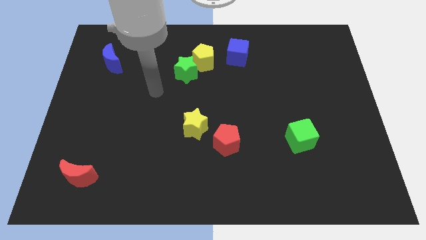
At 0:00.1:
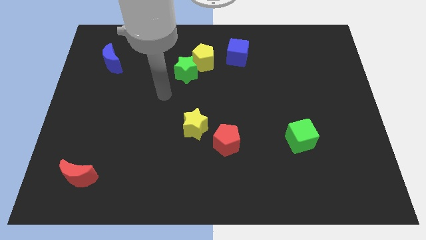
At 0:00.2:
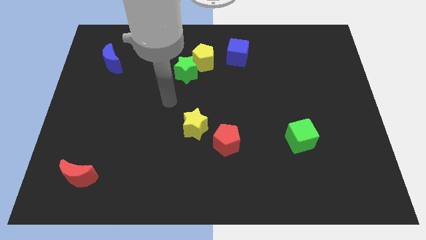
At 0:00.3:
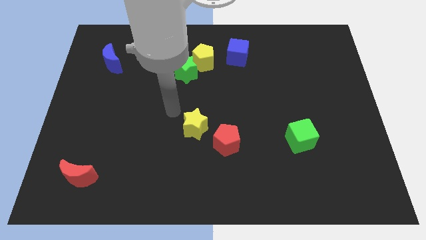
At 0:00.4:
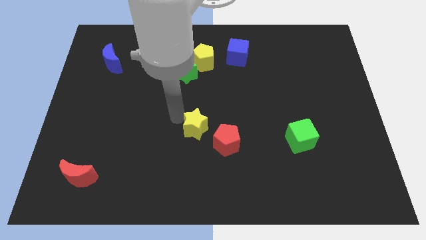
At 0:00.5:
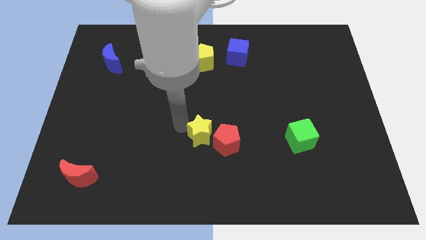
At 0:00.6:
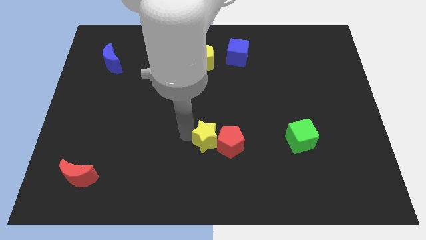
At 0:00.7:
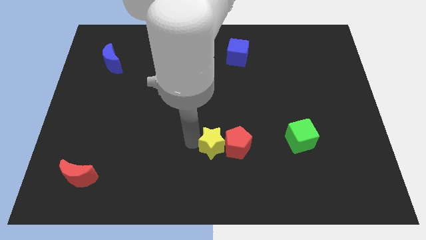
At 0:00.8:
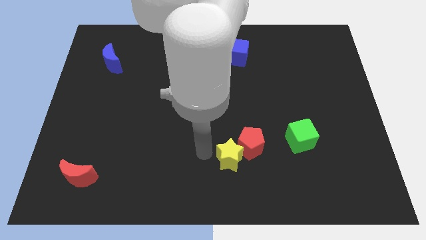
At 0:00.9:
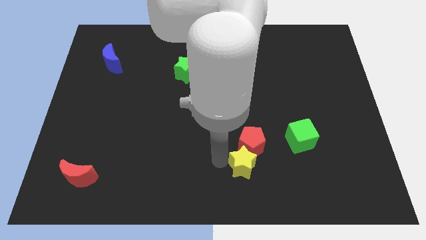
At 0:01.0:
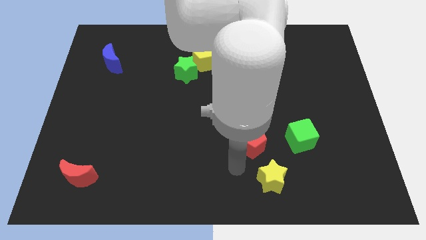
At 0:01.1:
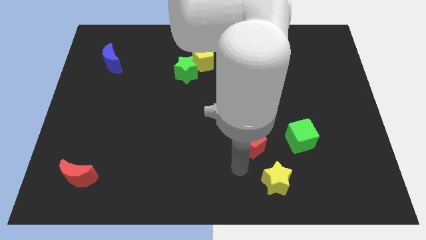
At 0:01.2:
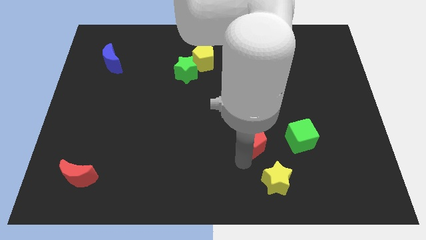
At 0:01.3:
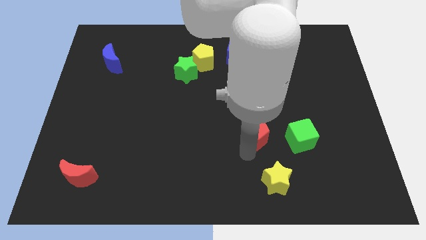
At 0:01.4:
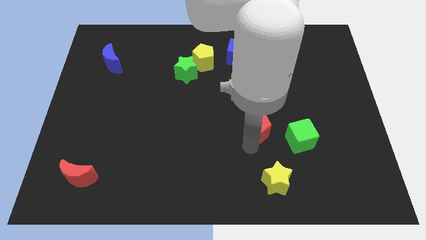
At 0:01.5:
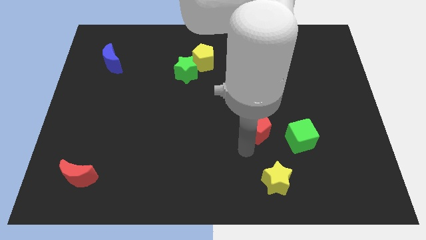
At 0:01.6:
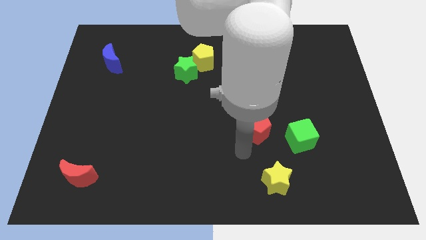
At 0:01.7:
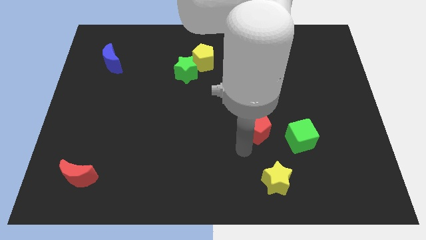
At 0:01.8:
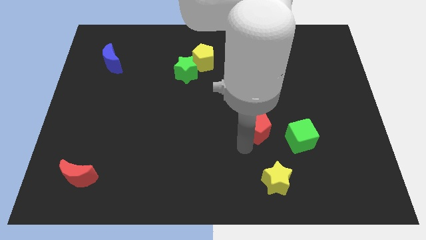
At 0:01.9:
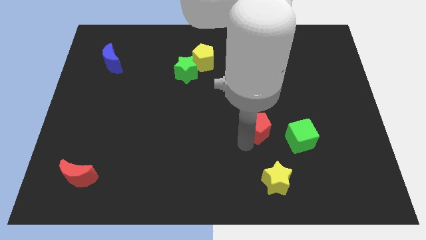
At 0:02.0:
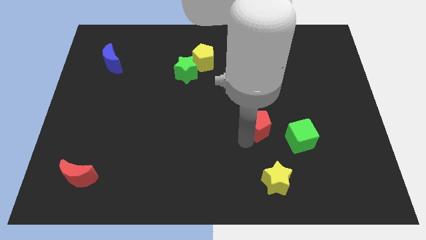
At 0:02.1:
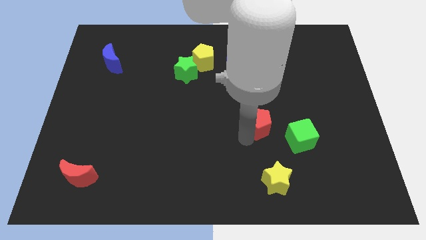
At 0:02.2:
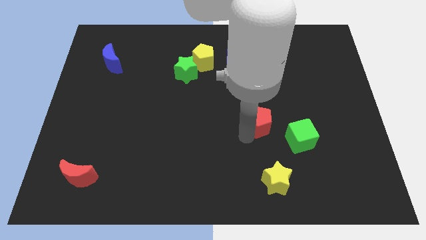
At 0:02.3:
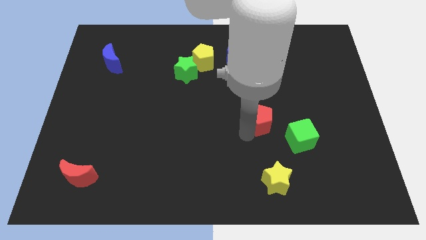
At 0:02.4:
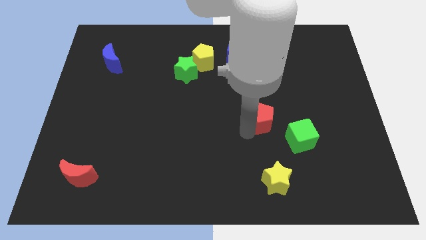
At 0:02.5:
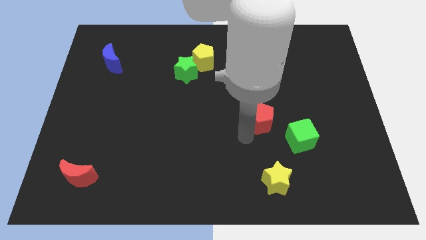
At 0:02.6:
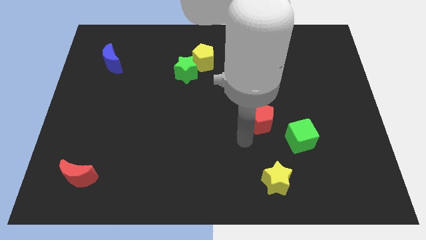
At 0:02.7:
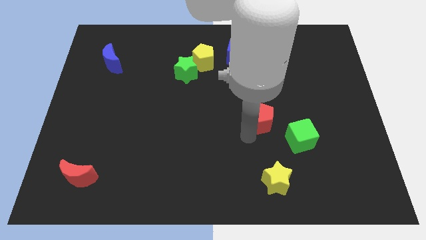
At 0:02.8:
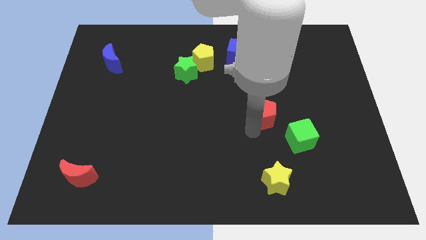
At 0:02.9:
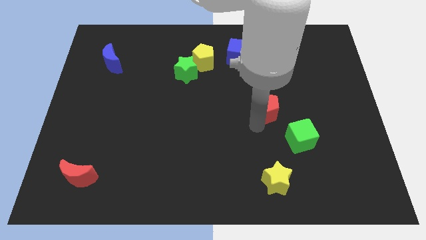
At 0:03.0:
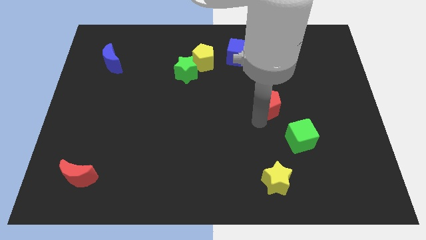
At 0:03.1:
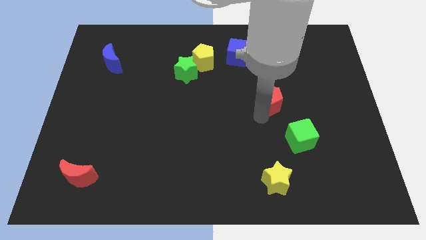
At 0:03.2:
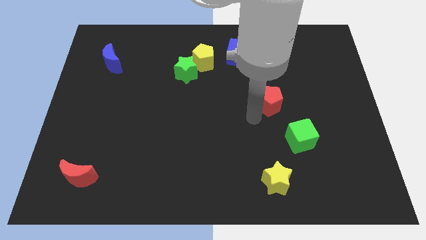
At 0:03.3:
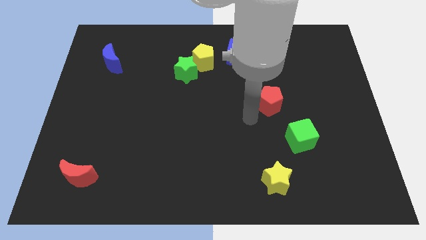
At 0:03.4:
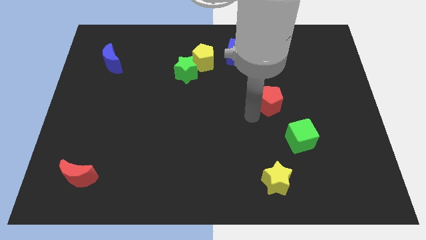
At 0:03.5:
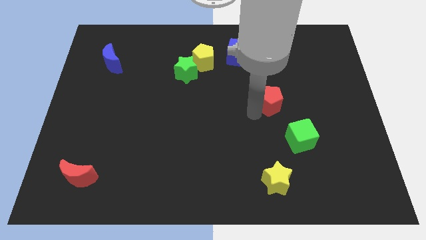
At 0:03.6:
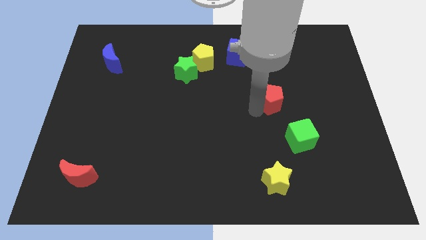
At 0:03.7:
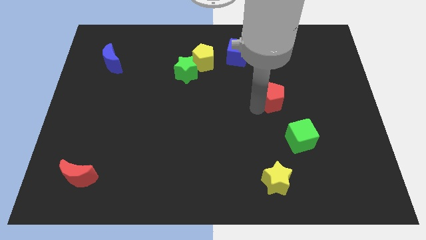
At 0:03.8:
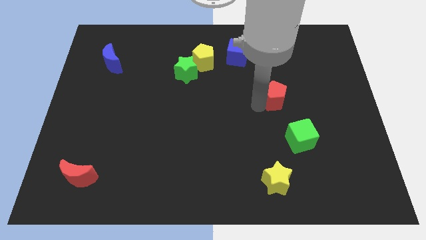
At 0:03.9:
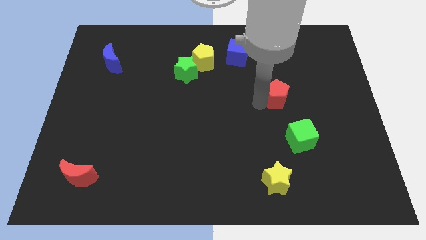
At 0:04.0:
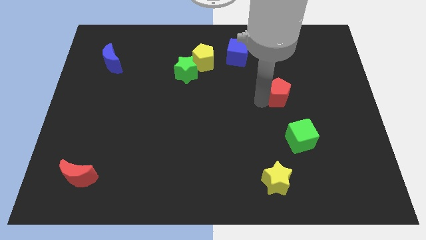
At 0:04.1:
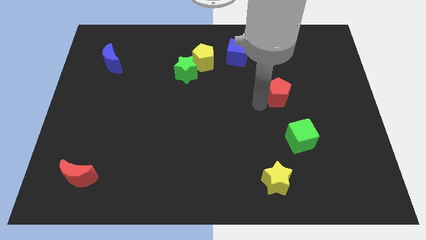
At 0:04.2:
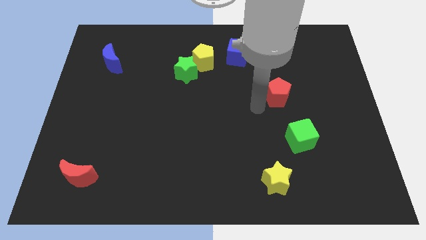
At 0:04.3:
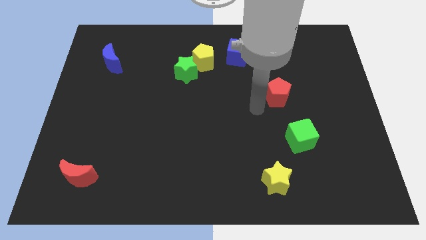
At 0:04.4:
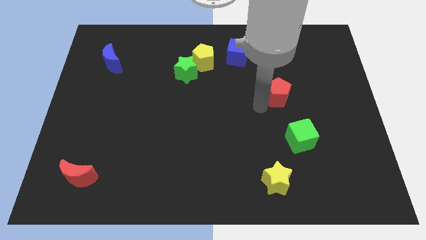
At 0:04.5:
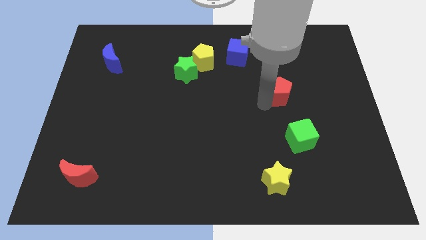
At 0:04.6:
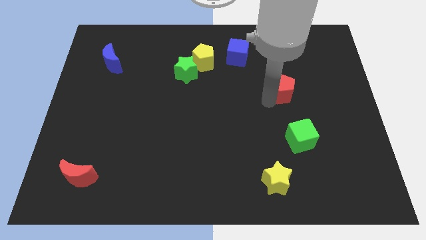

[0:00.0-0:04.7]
move the red pentagon up and to the right diagonally

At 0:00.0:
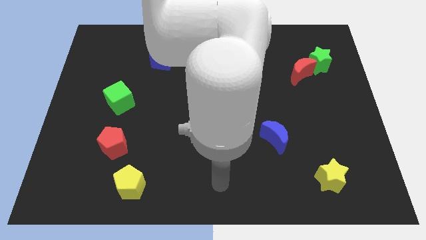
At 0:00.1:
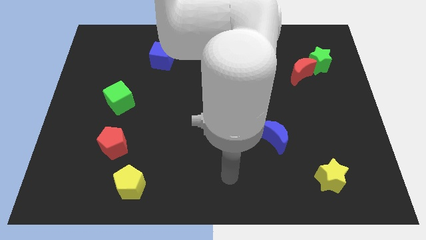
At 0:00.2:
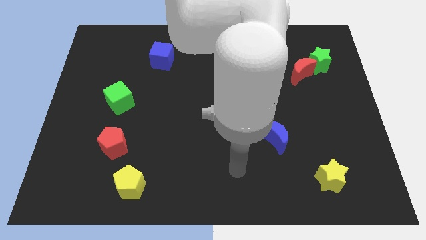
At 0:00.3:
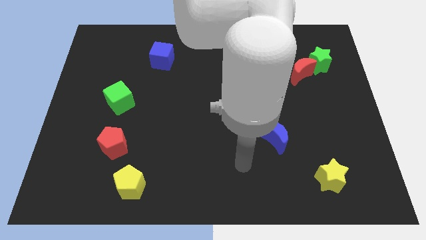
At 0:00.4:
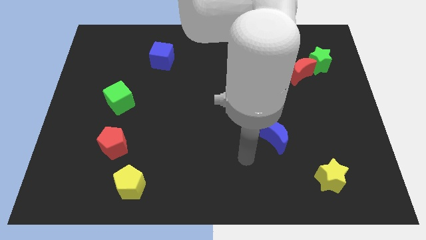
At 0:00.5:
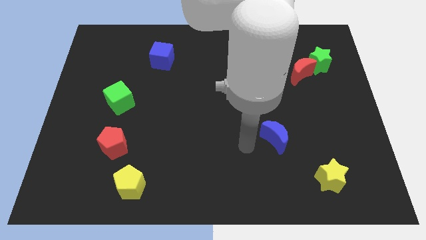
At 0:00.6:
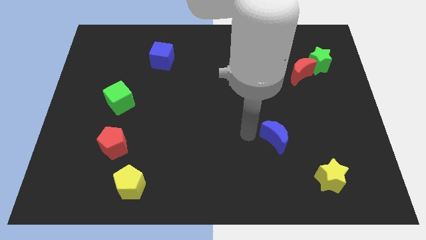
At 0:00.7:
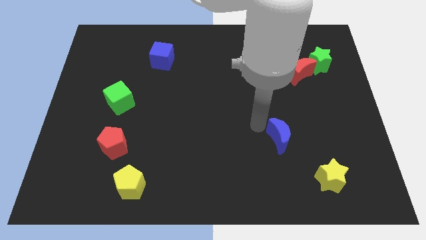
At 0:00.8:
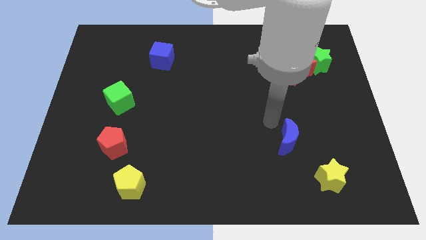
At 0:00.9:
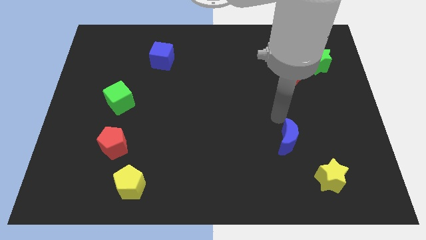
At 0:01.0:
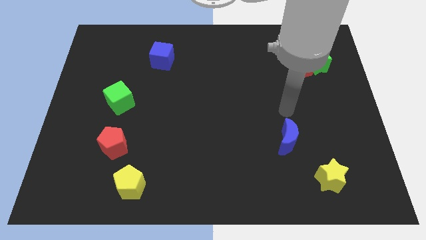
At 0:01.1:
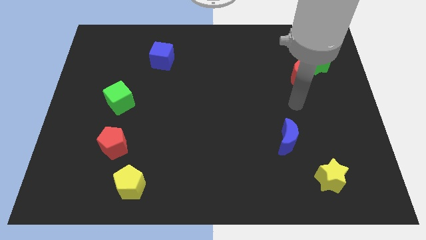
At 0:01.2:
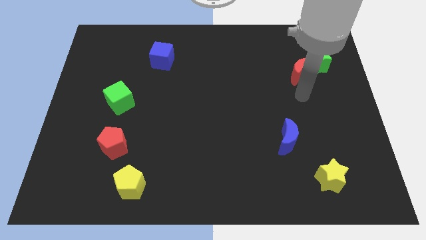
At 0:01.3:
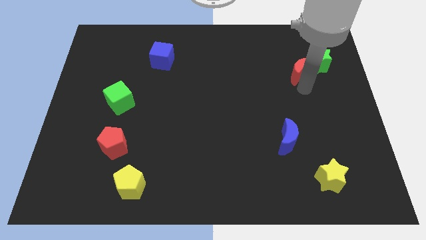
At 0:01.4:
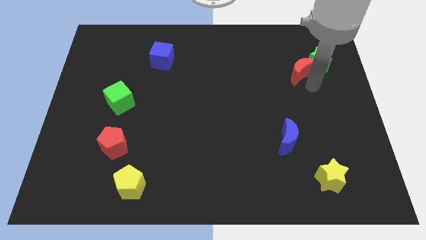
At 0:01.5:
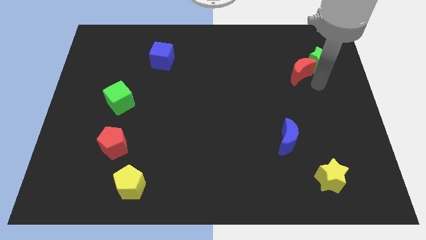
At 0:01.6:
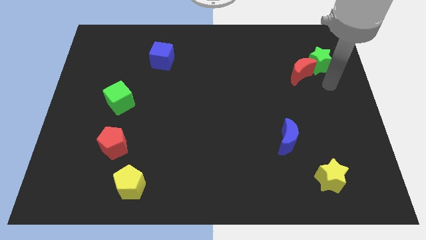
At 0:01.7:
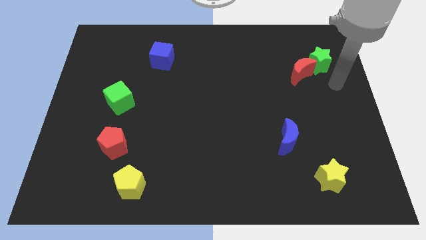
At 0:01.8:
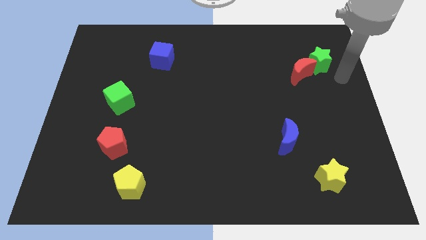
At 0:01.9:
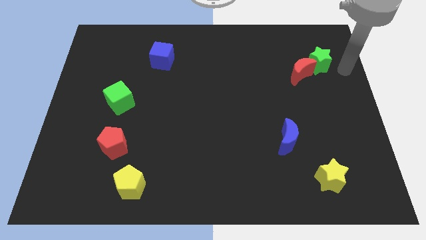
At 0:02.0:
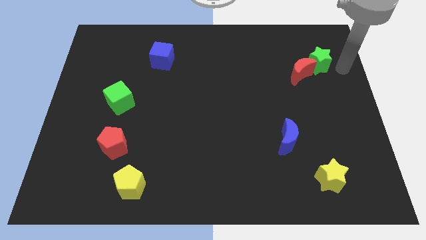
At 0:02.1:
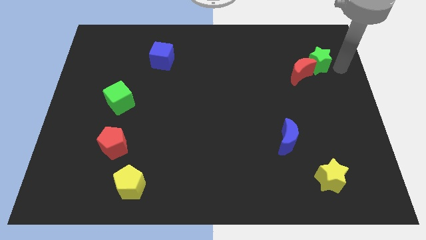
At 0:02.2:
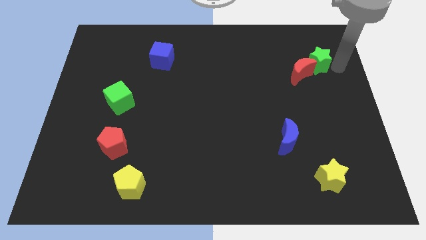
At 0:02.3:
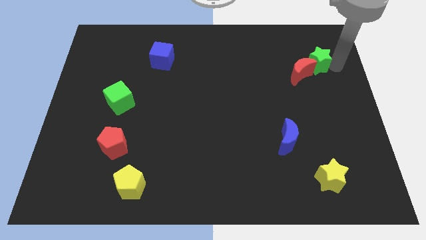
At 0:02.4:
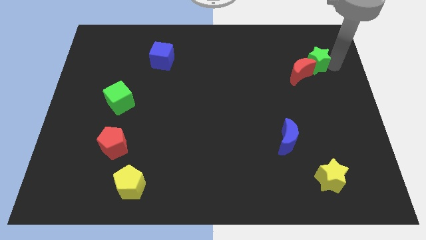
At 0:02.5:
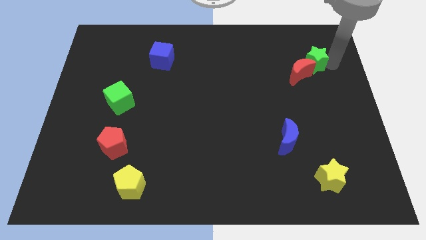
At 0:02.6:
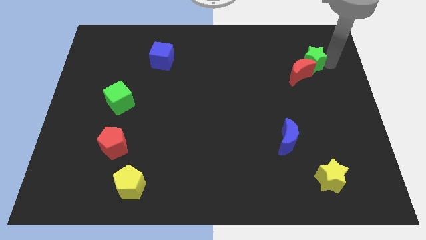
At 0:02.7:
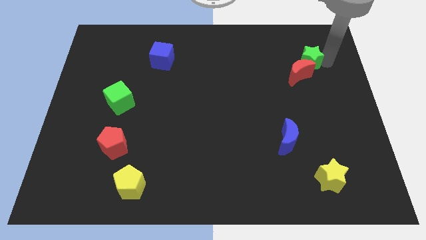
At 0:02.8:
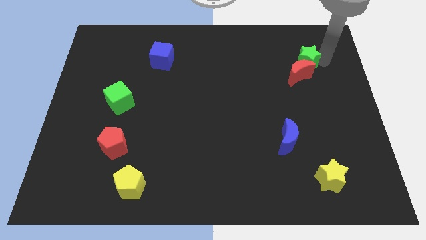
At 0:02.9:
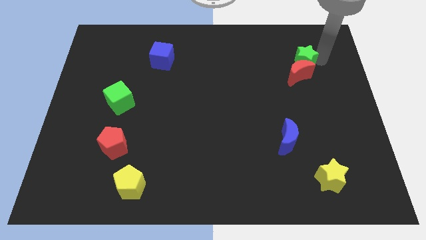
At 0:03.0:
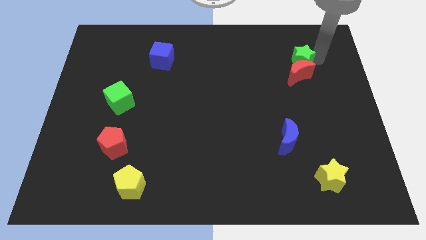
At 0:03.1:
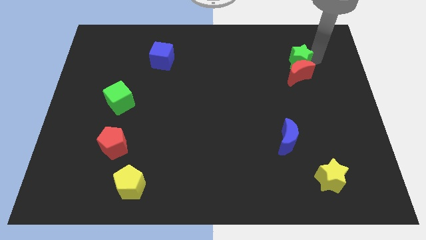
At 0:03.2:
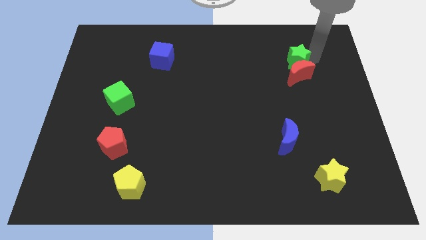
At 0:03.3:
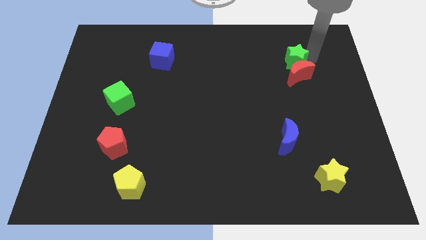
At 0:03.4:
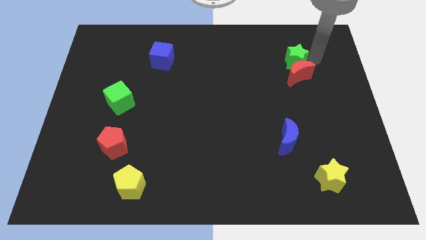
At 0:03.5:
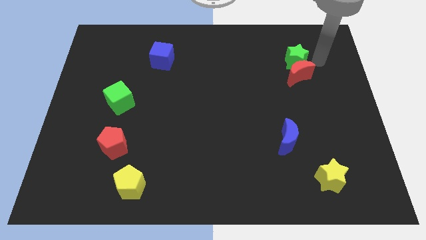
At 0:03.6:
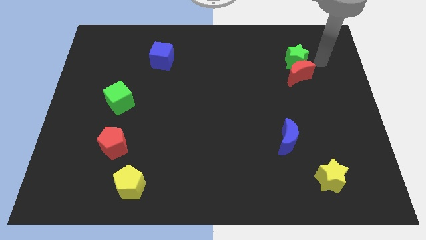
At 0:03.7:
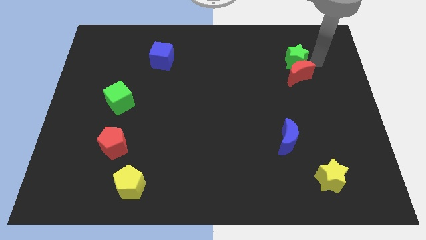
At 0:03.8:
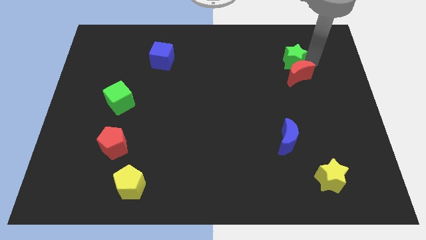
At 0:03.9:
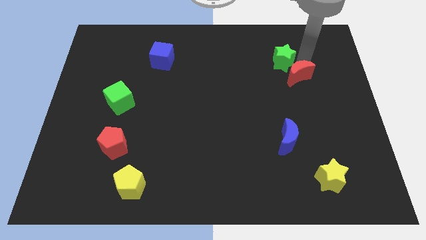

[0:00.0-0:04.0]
slide the green star to the left somewhat
